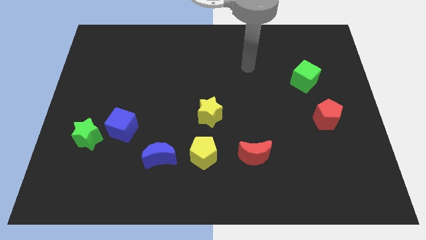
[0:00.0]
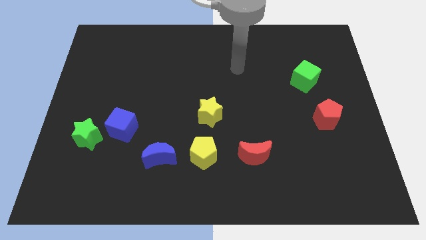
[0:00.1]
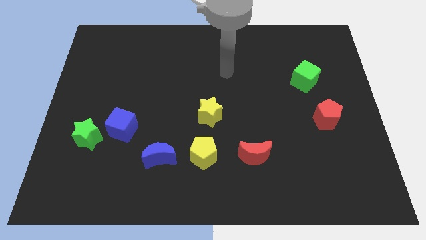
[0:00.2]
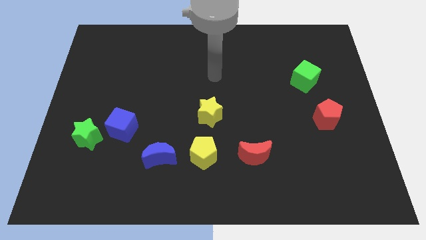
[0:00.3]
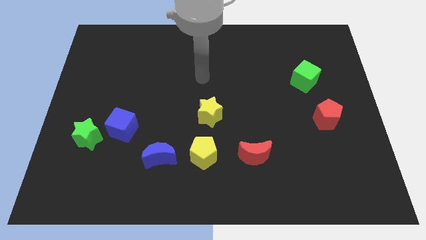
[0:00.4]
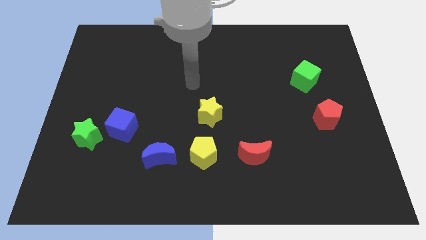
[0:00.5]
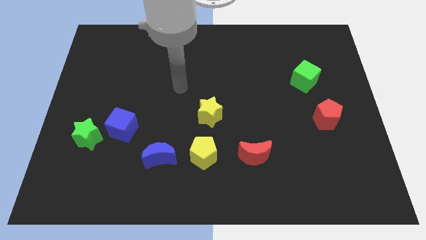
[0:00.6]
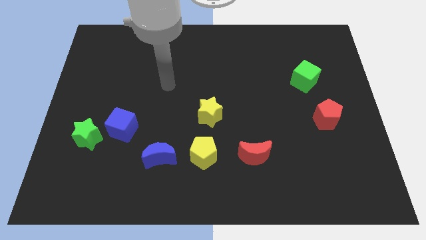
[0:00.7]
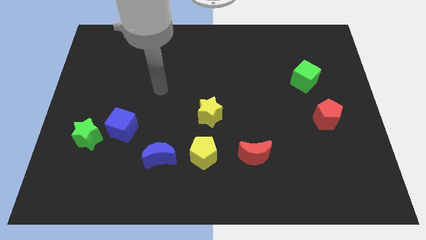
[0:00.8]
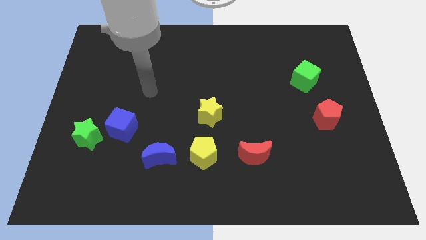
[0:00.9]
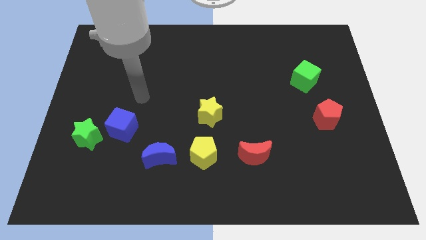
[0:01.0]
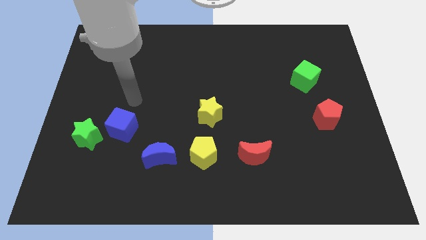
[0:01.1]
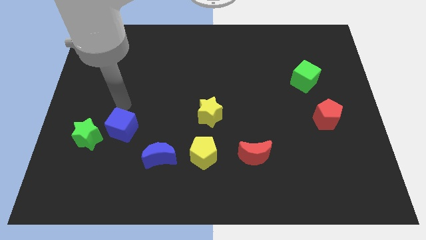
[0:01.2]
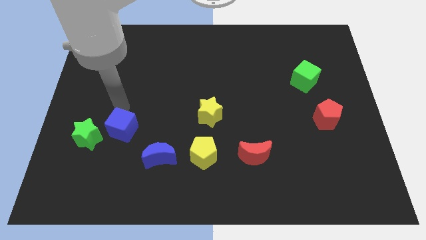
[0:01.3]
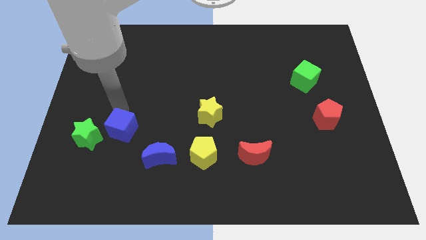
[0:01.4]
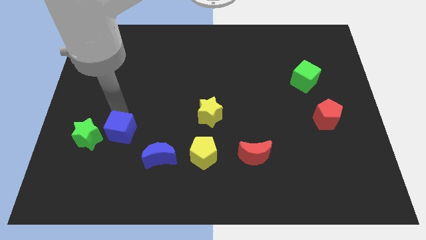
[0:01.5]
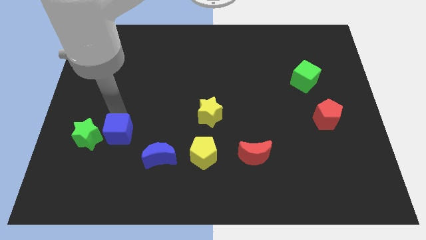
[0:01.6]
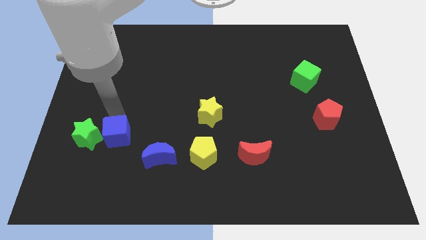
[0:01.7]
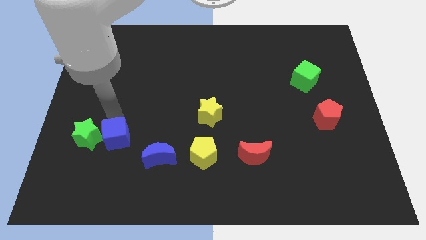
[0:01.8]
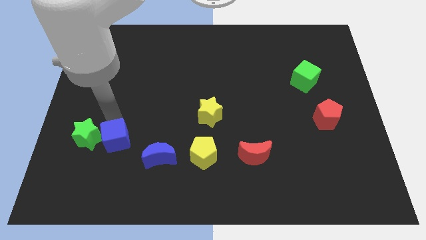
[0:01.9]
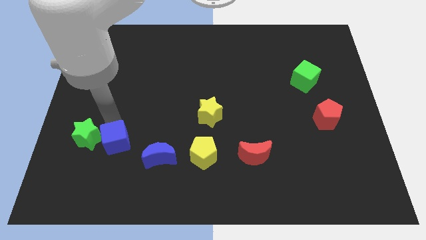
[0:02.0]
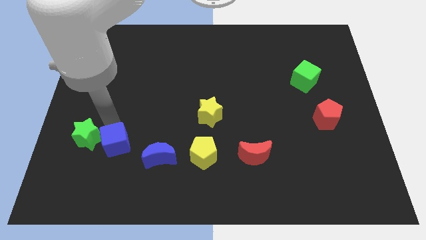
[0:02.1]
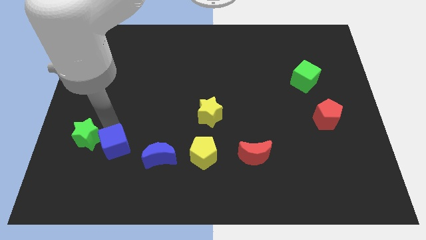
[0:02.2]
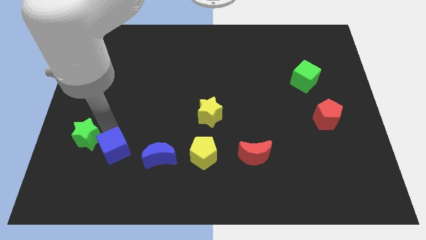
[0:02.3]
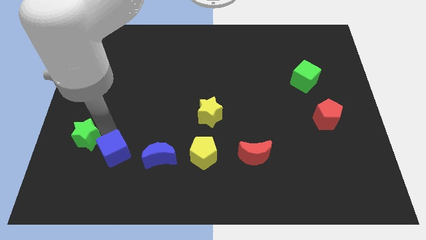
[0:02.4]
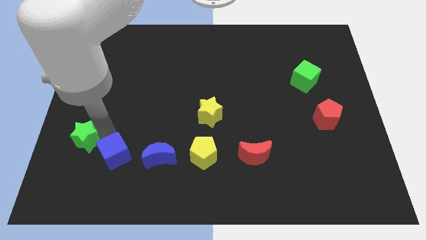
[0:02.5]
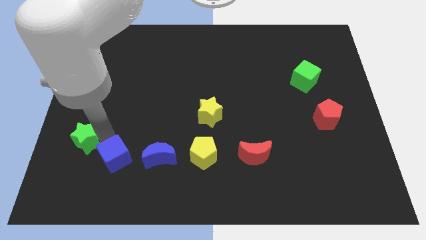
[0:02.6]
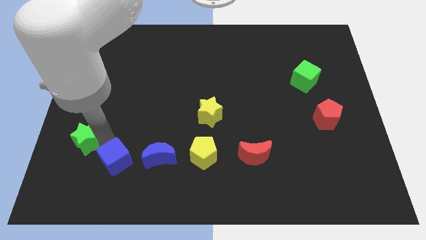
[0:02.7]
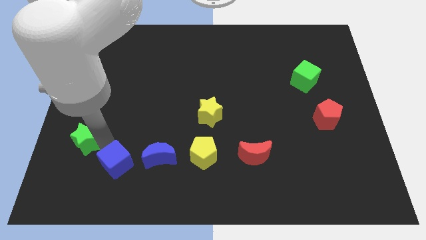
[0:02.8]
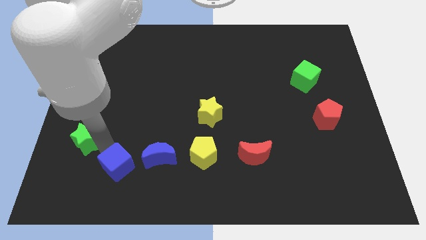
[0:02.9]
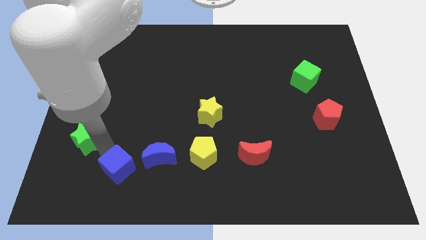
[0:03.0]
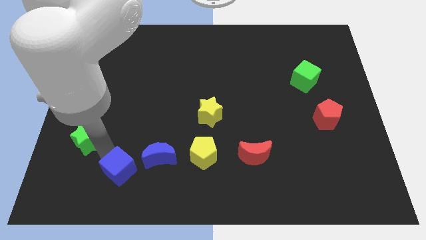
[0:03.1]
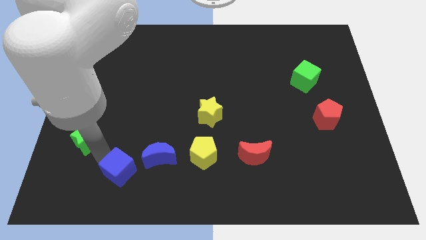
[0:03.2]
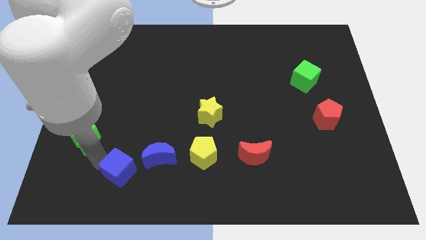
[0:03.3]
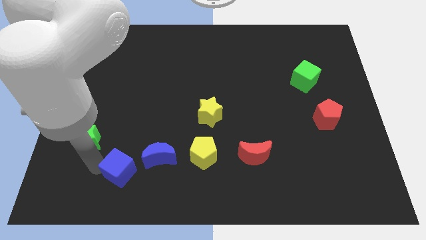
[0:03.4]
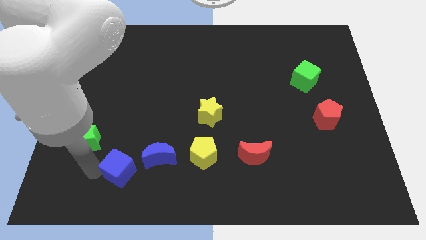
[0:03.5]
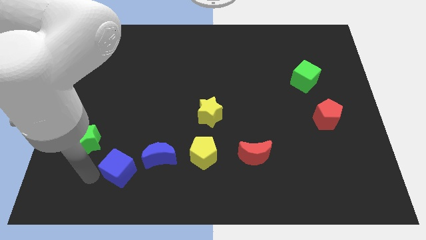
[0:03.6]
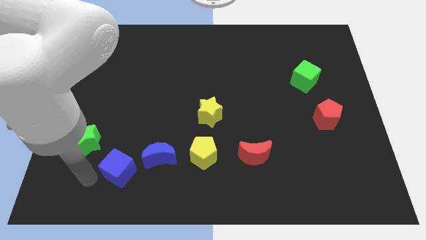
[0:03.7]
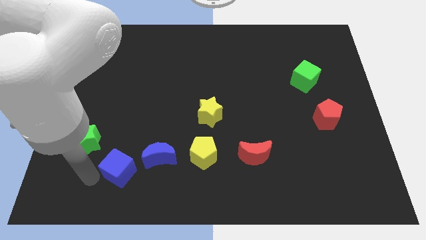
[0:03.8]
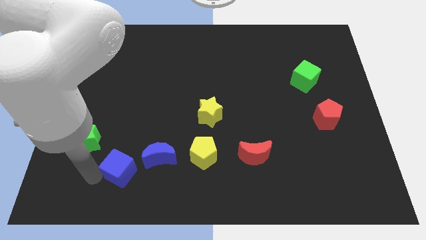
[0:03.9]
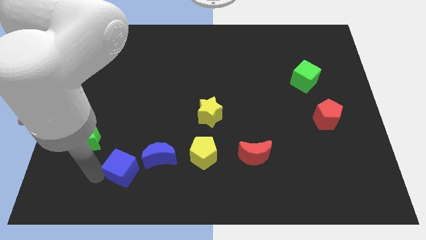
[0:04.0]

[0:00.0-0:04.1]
slide the blue cube downwards and then to the right slightly

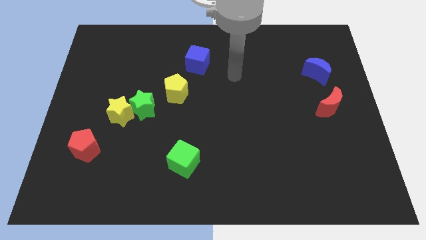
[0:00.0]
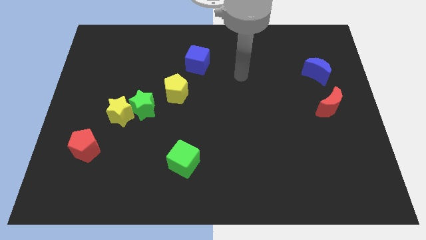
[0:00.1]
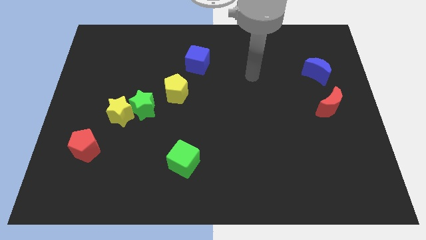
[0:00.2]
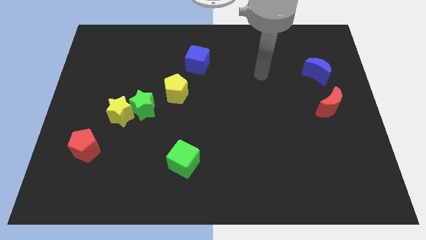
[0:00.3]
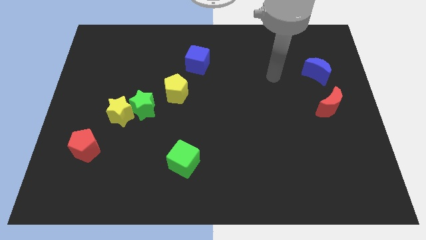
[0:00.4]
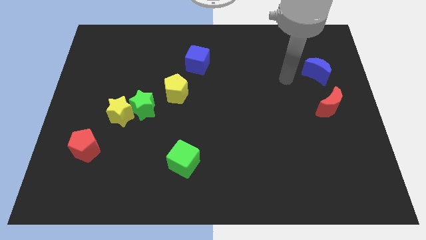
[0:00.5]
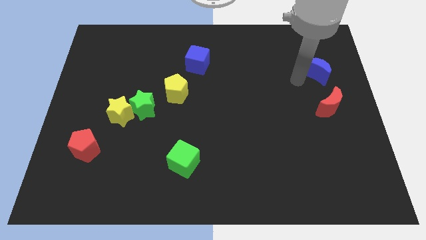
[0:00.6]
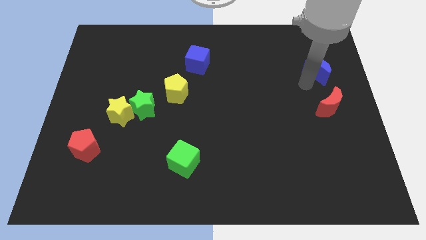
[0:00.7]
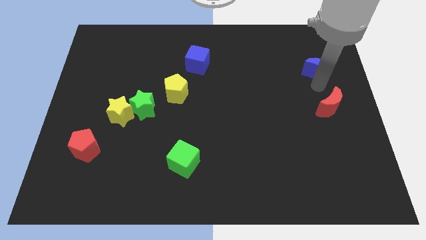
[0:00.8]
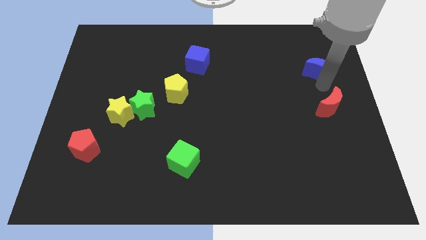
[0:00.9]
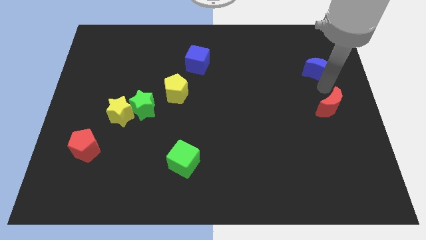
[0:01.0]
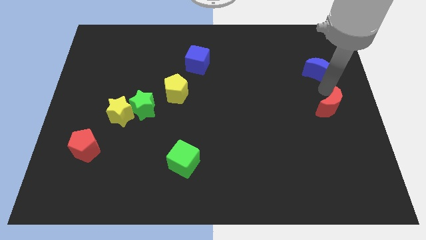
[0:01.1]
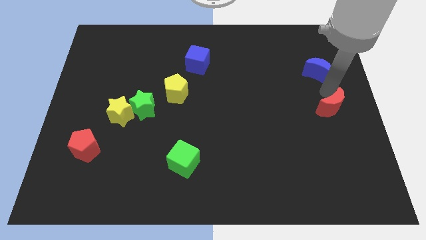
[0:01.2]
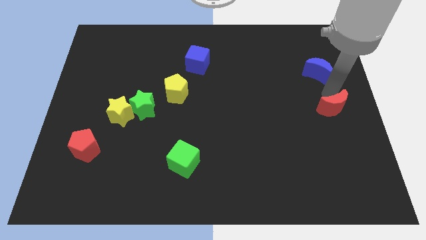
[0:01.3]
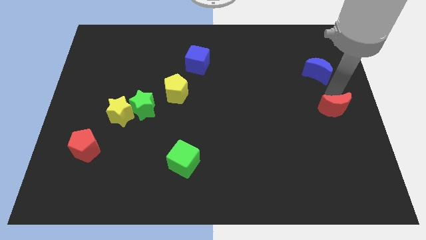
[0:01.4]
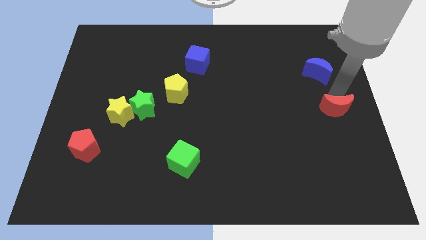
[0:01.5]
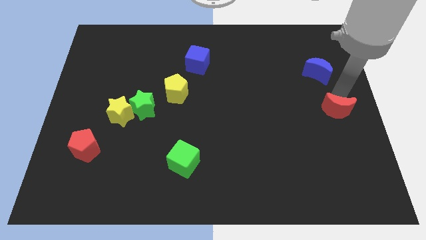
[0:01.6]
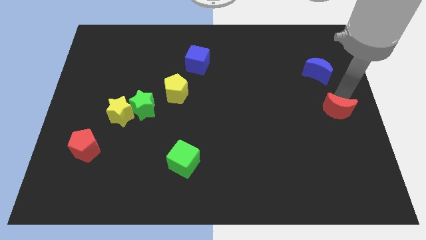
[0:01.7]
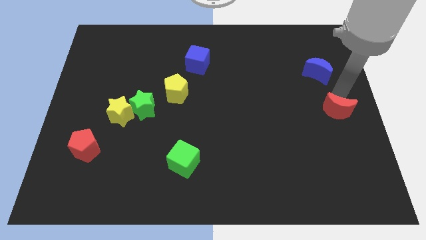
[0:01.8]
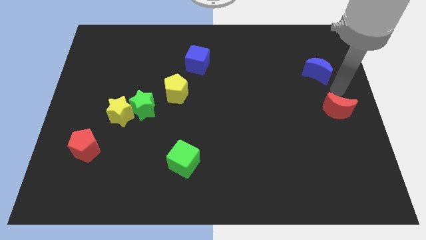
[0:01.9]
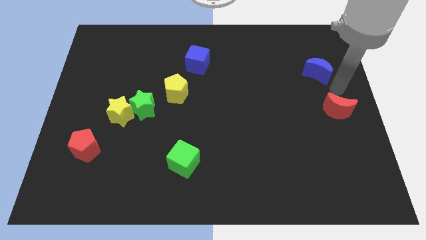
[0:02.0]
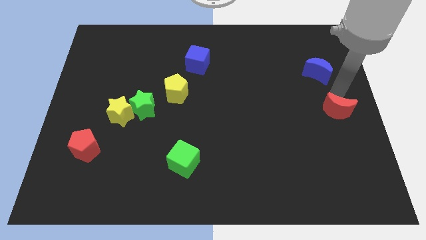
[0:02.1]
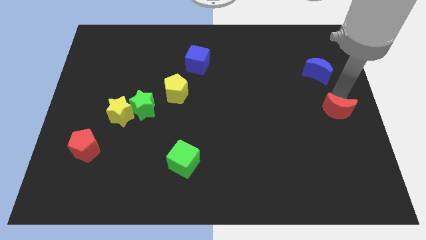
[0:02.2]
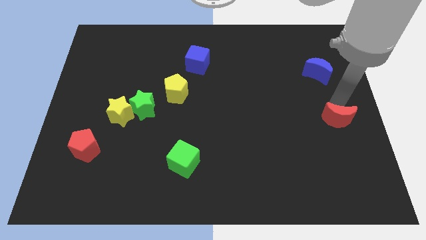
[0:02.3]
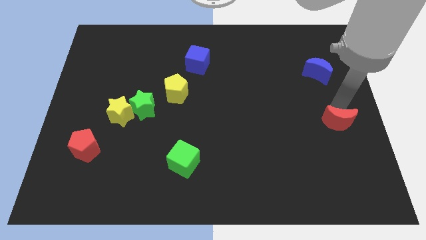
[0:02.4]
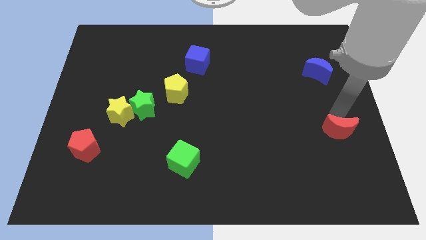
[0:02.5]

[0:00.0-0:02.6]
slightly push the red moon down

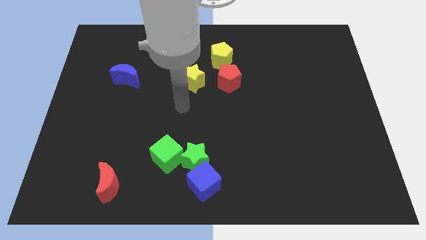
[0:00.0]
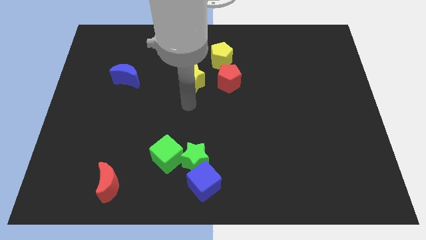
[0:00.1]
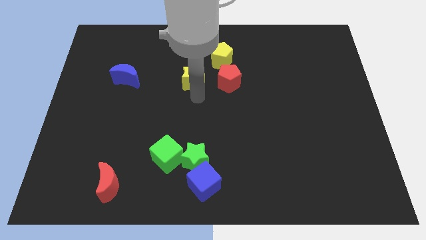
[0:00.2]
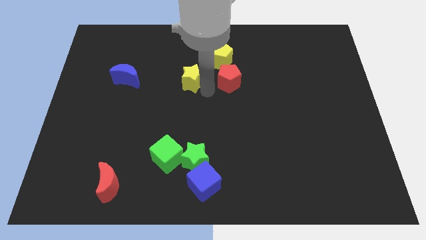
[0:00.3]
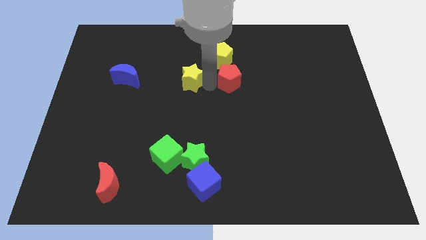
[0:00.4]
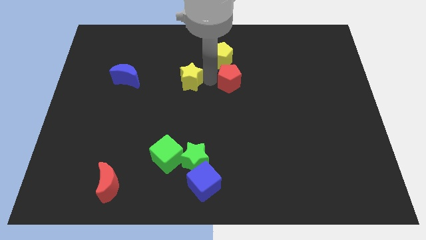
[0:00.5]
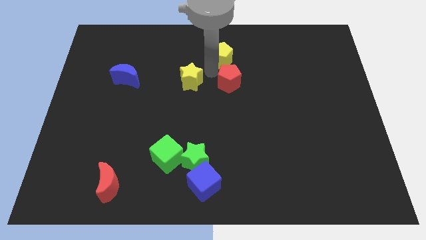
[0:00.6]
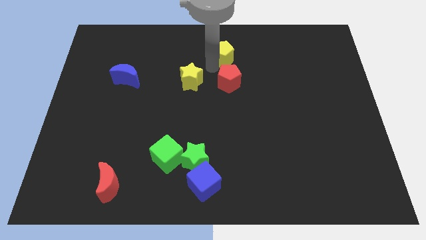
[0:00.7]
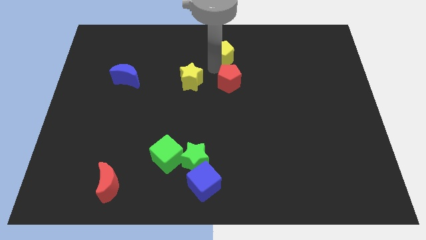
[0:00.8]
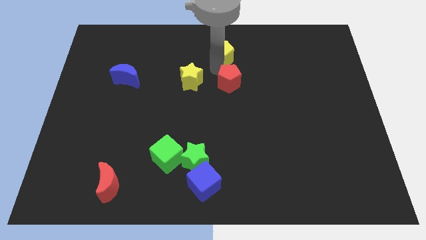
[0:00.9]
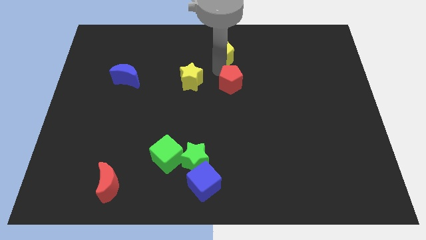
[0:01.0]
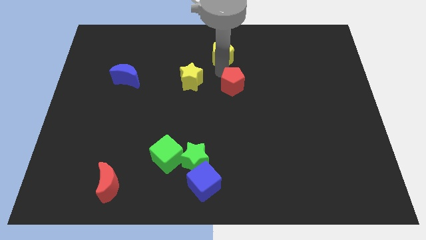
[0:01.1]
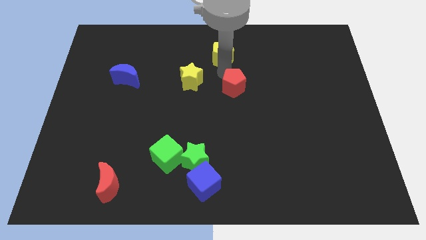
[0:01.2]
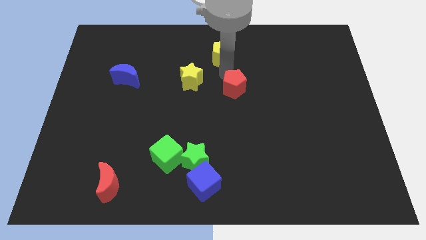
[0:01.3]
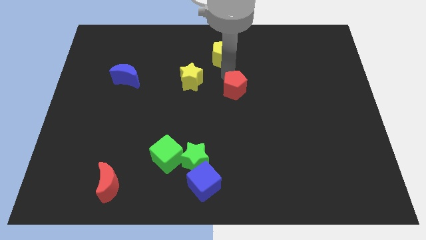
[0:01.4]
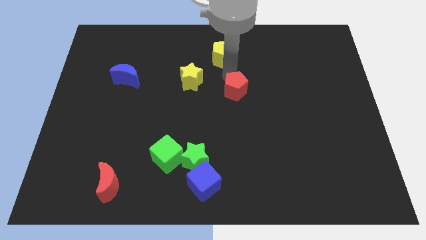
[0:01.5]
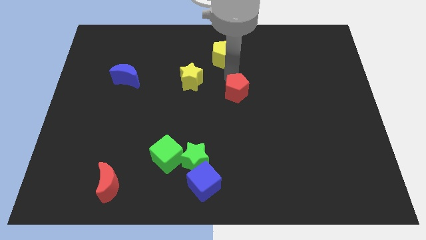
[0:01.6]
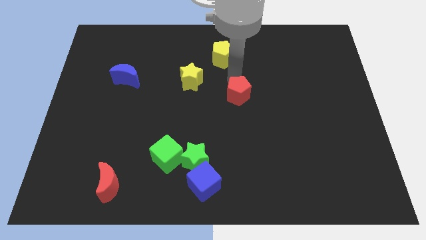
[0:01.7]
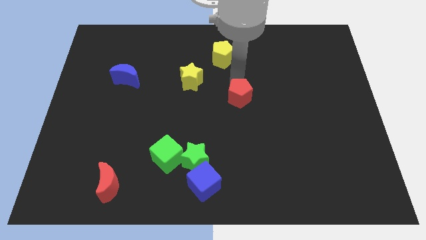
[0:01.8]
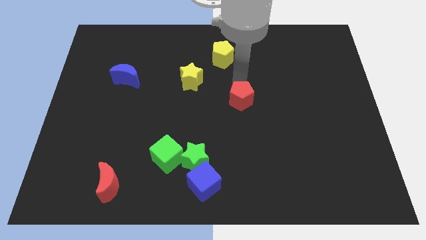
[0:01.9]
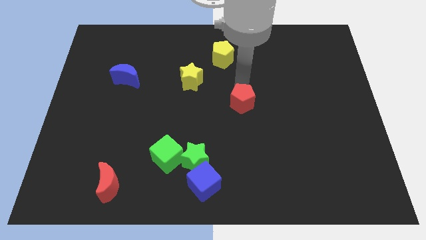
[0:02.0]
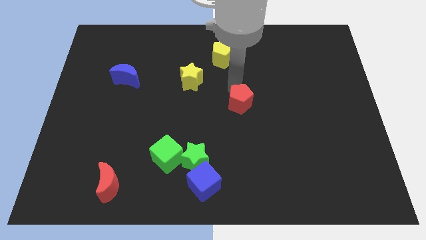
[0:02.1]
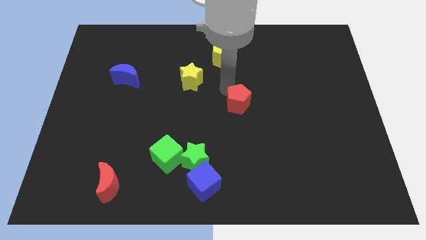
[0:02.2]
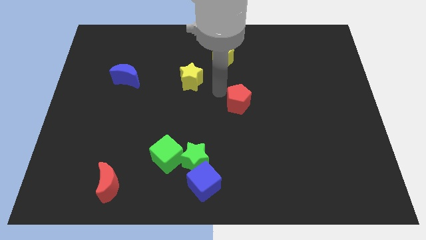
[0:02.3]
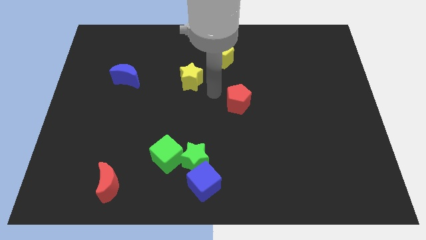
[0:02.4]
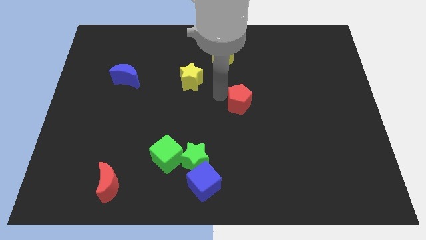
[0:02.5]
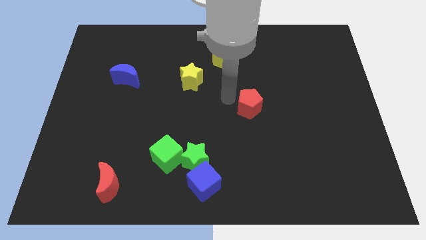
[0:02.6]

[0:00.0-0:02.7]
push the red pentagon slightly down and right diagonally
